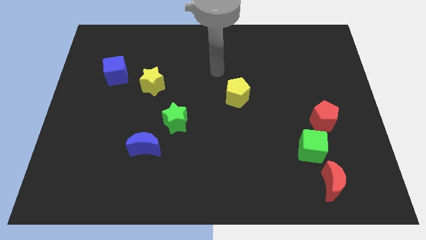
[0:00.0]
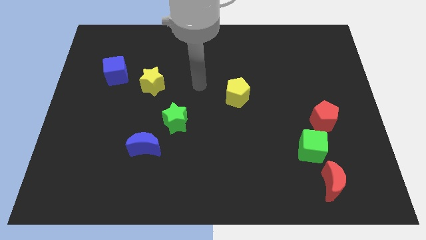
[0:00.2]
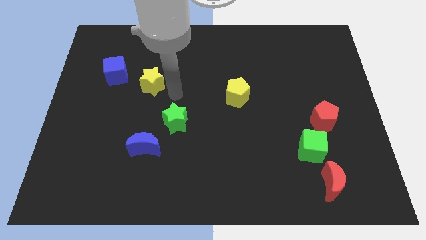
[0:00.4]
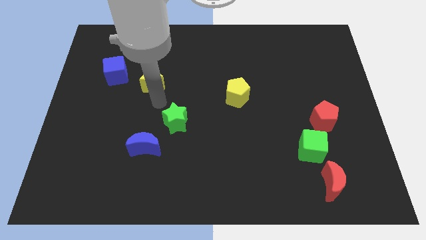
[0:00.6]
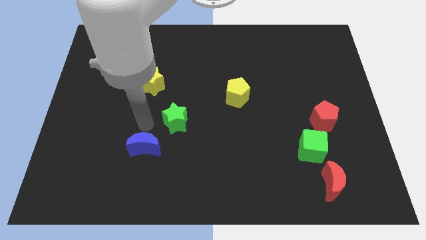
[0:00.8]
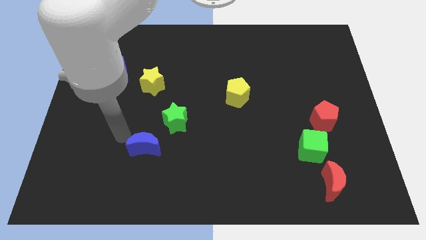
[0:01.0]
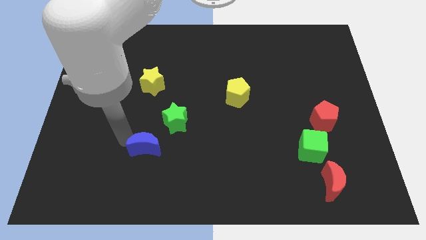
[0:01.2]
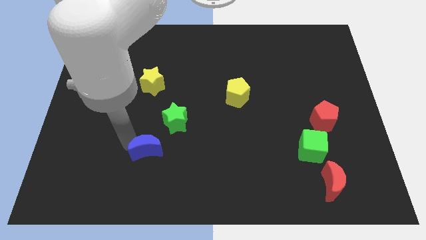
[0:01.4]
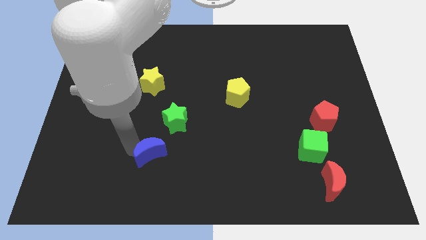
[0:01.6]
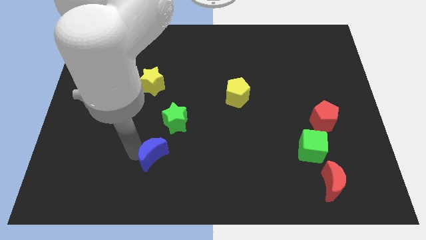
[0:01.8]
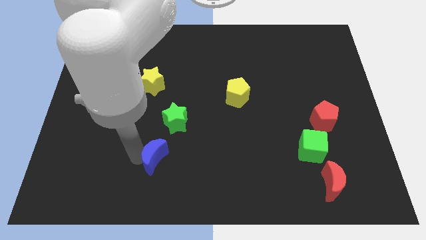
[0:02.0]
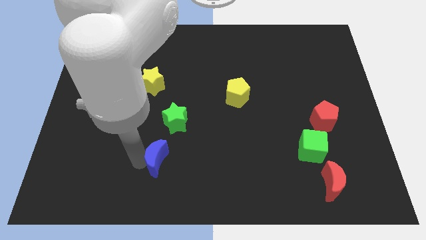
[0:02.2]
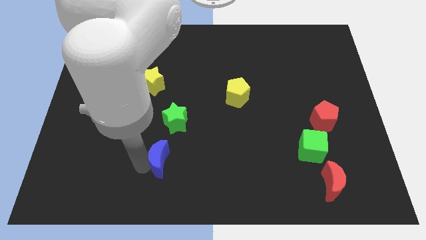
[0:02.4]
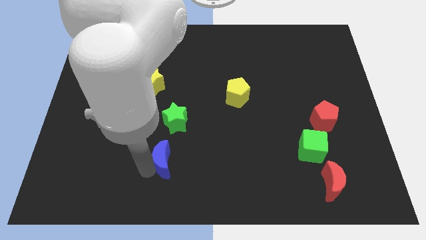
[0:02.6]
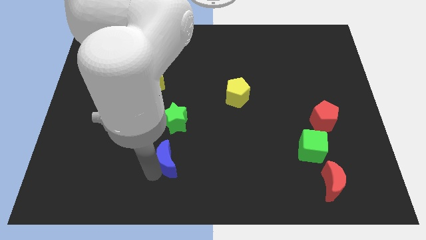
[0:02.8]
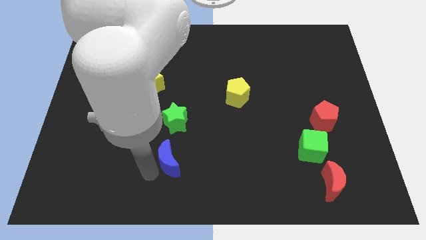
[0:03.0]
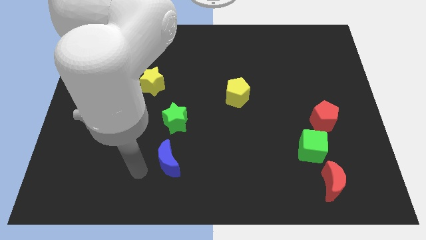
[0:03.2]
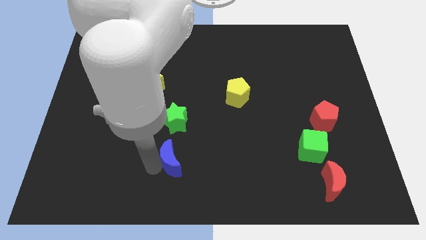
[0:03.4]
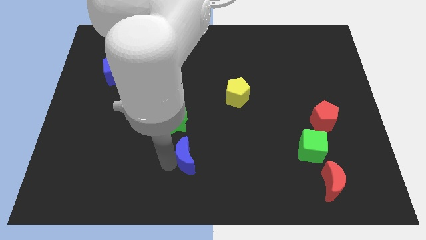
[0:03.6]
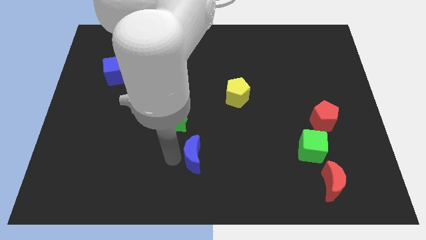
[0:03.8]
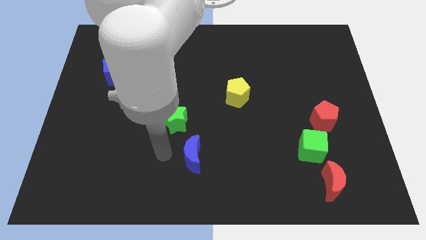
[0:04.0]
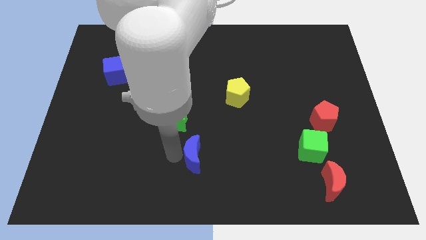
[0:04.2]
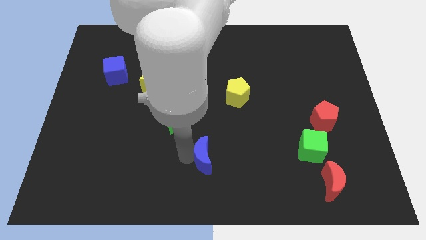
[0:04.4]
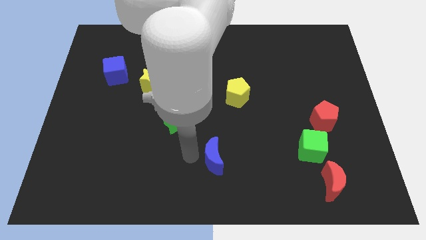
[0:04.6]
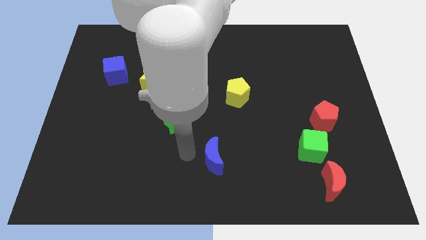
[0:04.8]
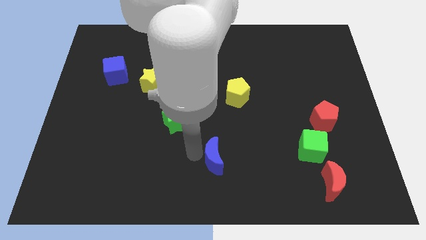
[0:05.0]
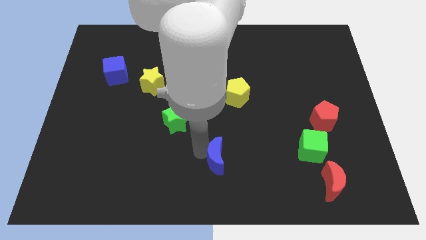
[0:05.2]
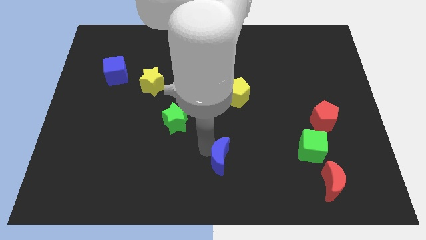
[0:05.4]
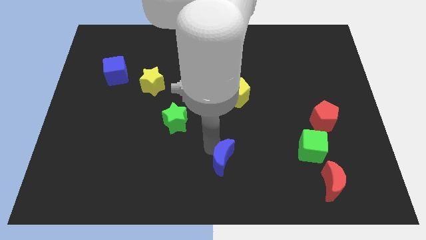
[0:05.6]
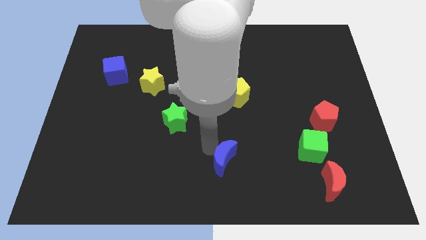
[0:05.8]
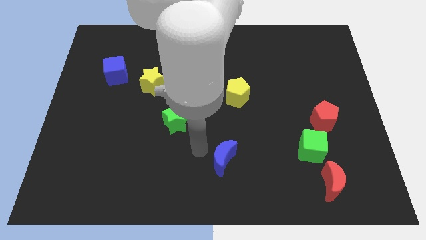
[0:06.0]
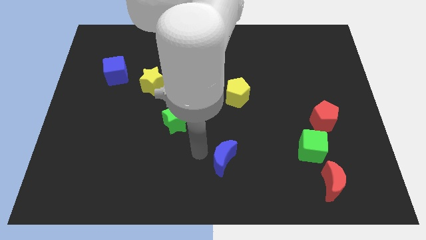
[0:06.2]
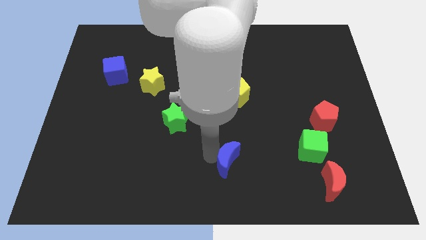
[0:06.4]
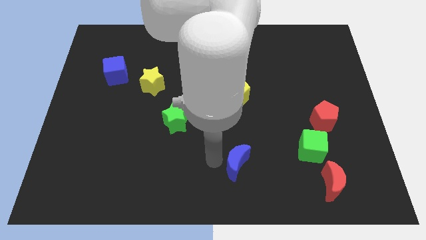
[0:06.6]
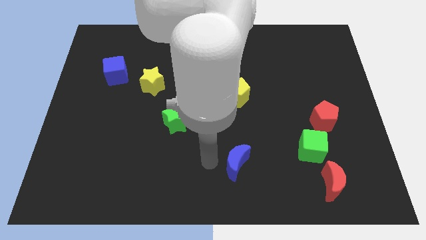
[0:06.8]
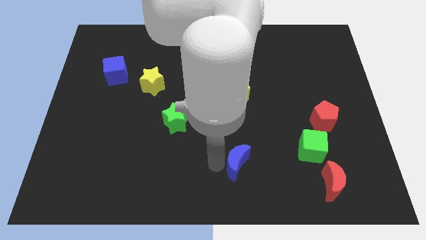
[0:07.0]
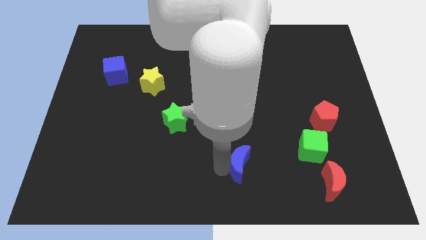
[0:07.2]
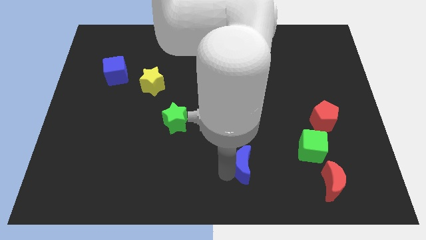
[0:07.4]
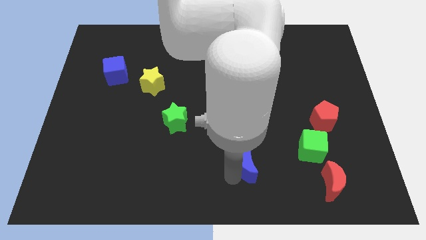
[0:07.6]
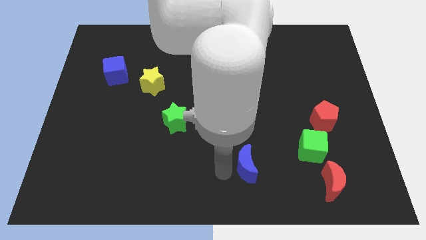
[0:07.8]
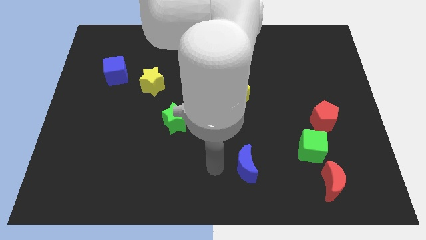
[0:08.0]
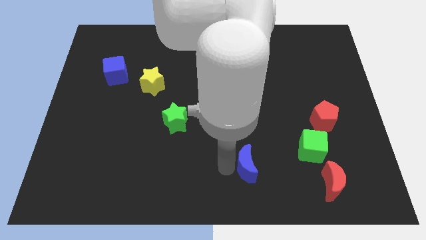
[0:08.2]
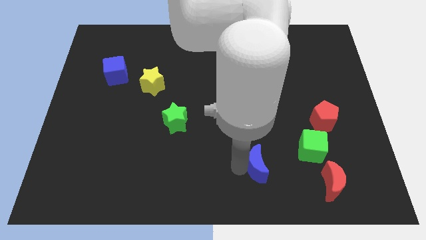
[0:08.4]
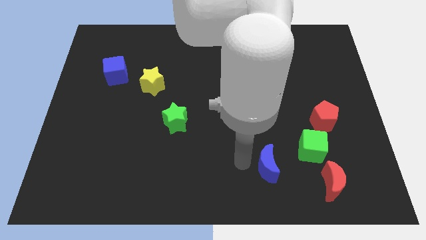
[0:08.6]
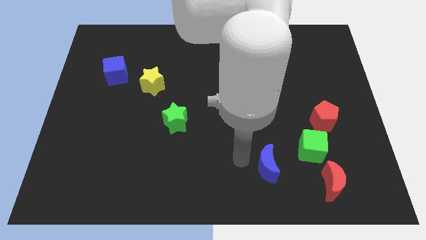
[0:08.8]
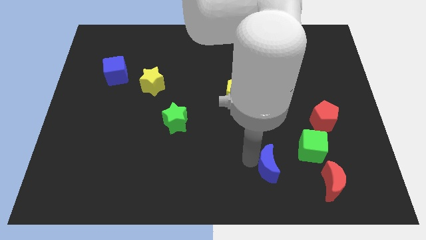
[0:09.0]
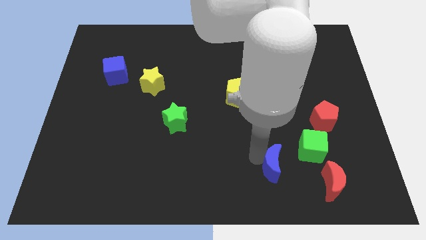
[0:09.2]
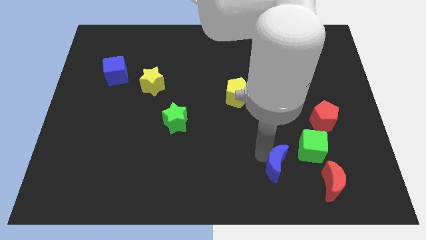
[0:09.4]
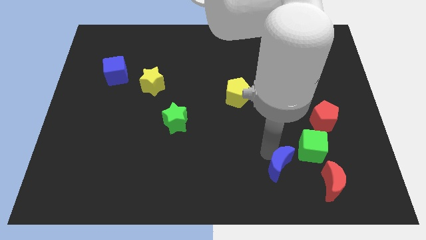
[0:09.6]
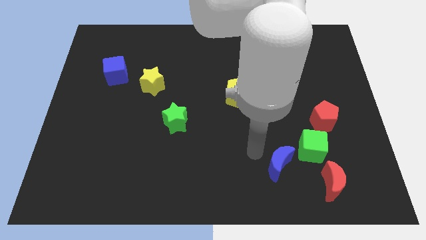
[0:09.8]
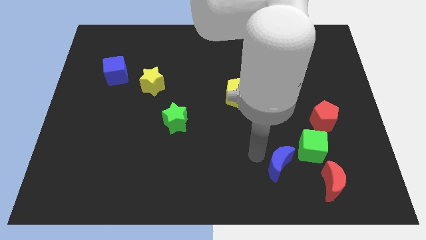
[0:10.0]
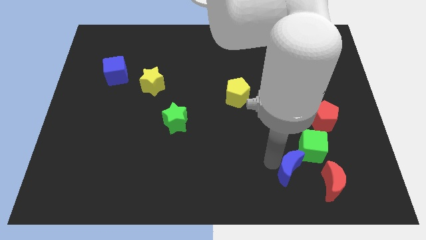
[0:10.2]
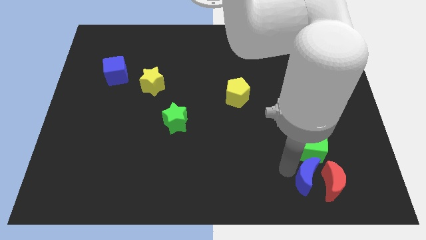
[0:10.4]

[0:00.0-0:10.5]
push the blue moon towards the red moon

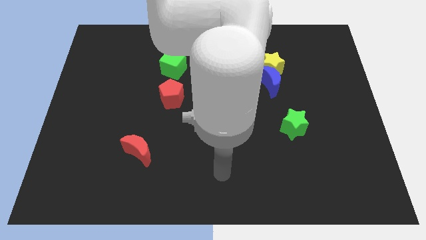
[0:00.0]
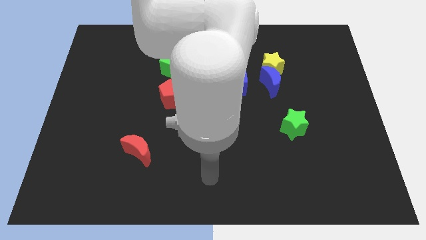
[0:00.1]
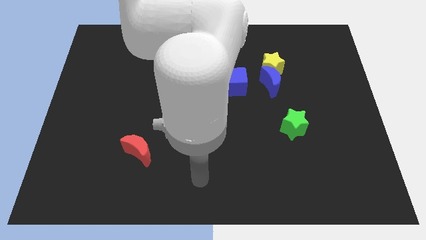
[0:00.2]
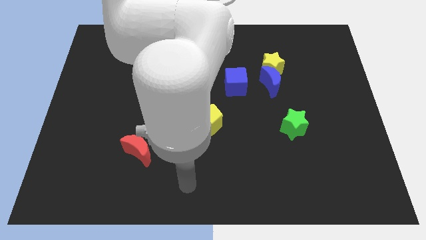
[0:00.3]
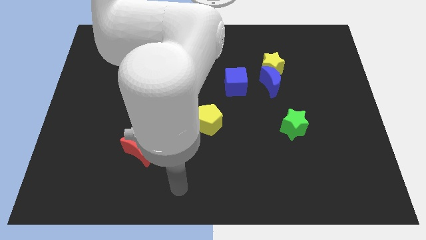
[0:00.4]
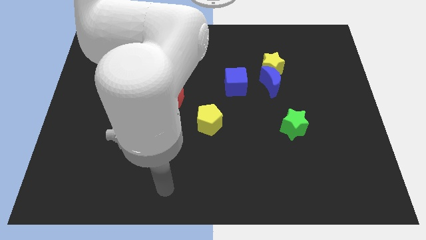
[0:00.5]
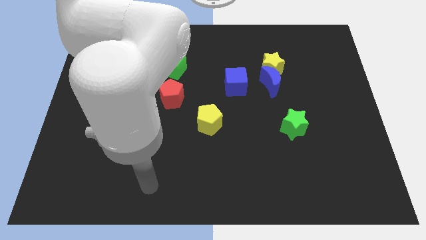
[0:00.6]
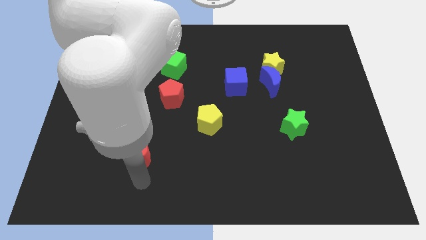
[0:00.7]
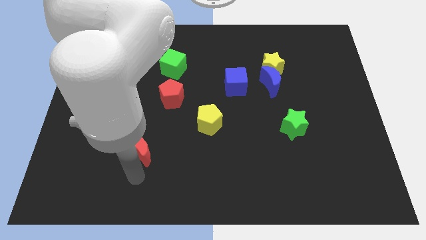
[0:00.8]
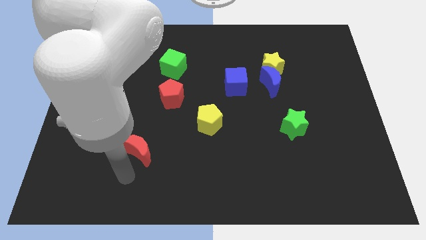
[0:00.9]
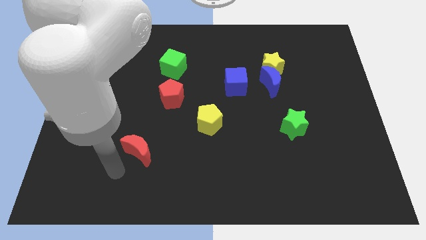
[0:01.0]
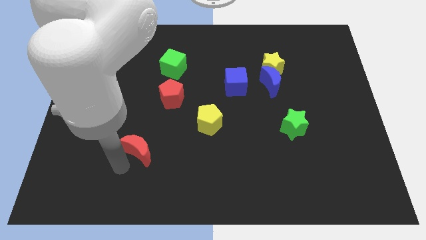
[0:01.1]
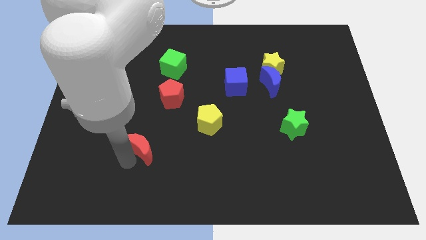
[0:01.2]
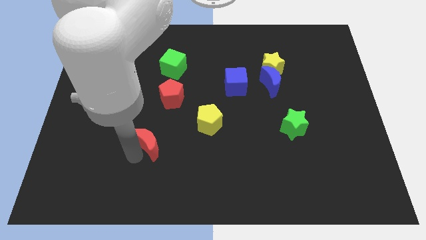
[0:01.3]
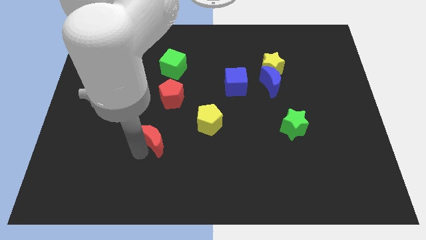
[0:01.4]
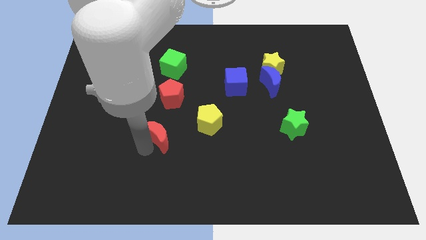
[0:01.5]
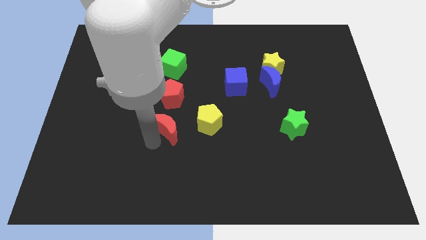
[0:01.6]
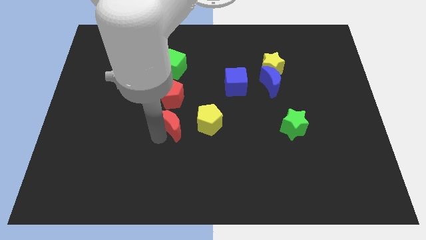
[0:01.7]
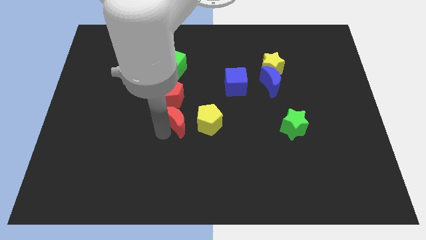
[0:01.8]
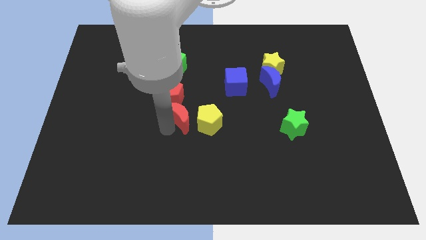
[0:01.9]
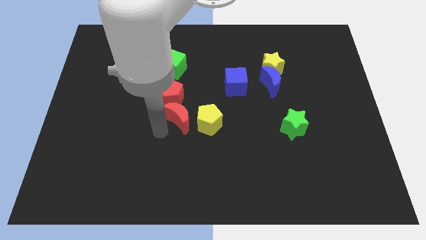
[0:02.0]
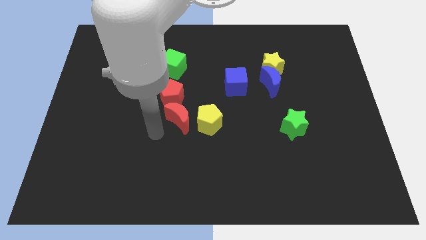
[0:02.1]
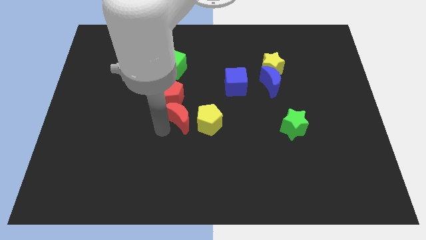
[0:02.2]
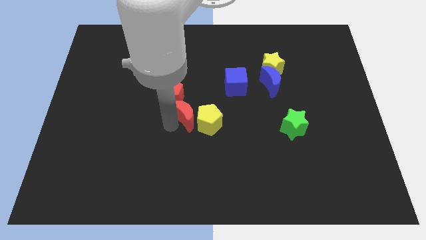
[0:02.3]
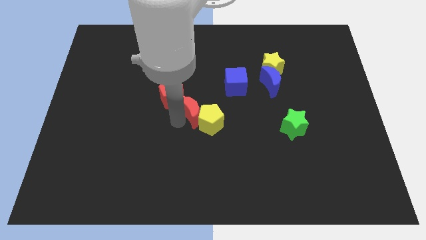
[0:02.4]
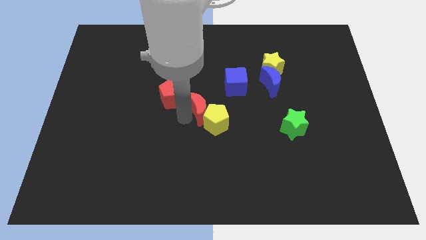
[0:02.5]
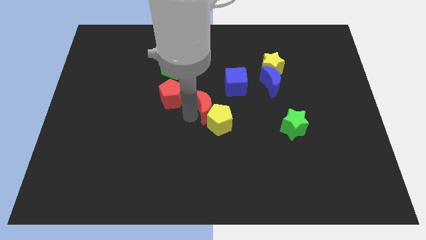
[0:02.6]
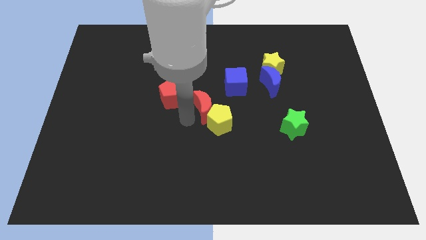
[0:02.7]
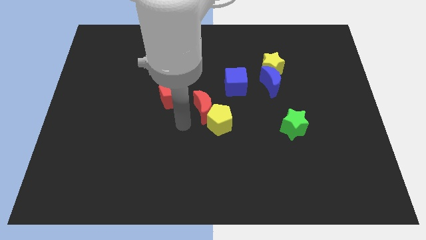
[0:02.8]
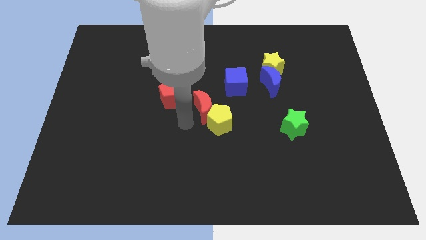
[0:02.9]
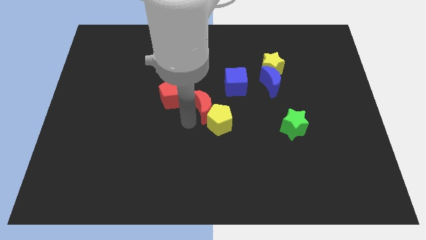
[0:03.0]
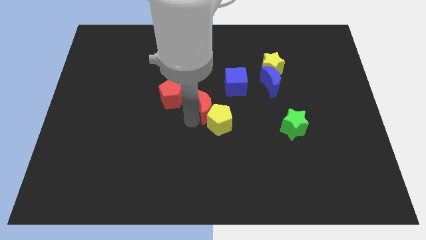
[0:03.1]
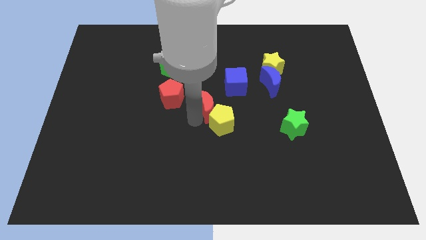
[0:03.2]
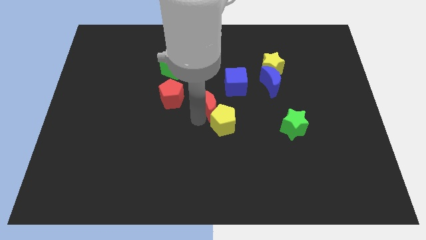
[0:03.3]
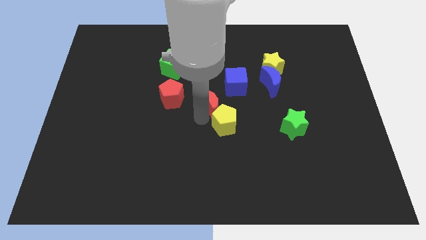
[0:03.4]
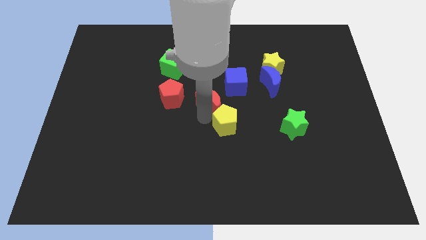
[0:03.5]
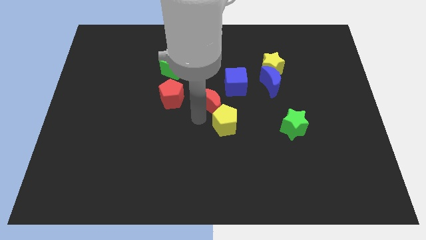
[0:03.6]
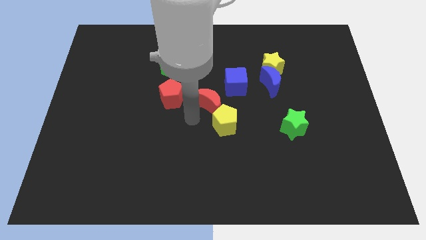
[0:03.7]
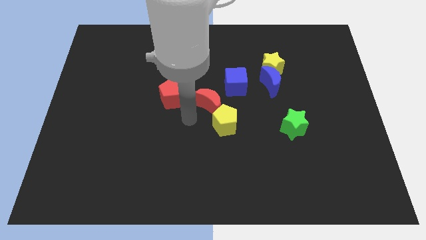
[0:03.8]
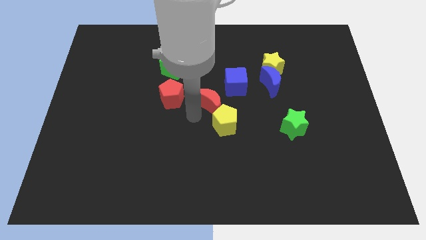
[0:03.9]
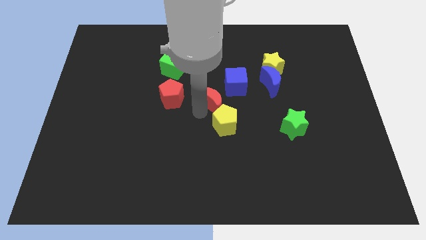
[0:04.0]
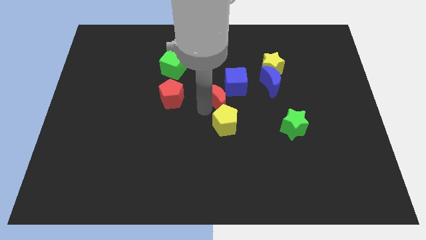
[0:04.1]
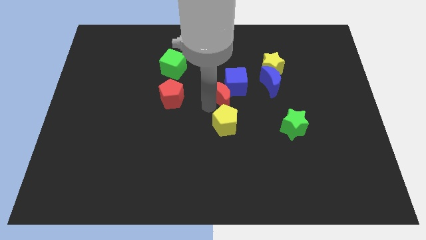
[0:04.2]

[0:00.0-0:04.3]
move the red moon close to the blue cube
